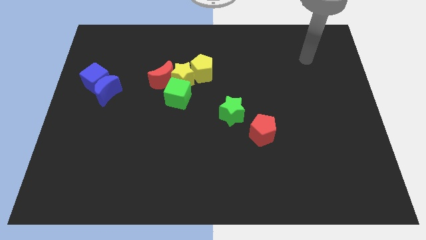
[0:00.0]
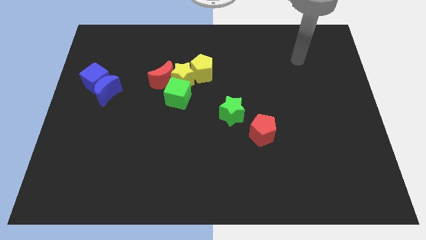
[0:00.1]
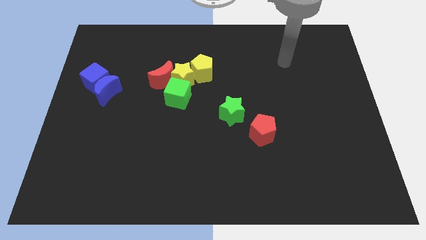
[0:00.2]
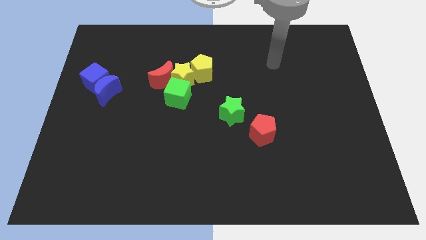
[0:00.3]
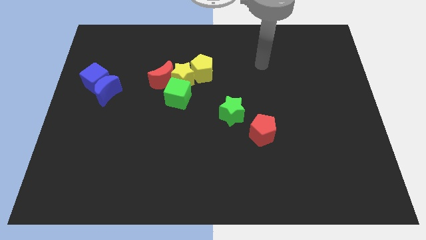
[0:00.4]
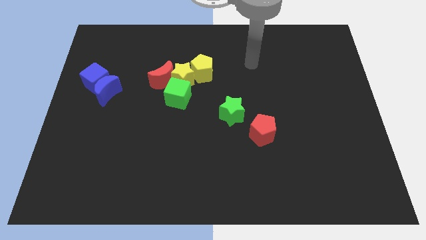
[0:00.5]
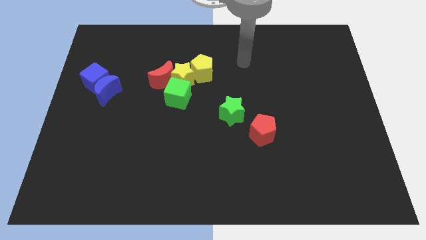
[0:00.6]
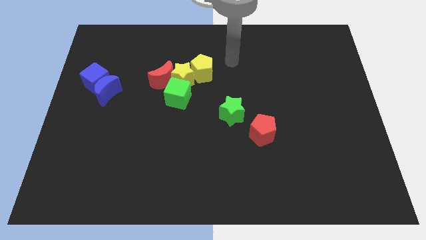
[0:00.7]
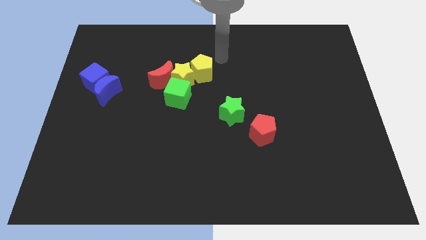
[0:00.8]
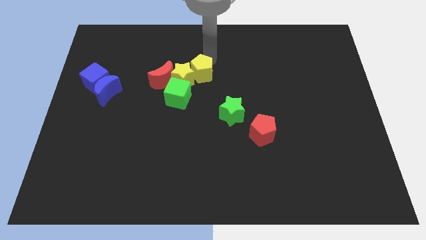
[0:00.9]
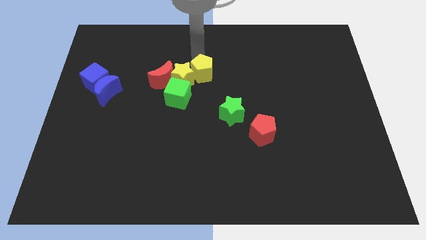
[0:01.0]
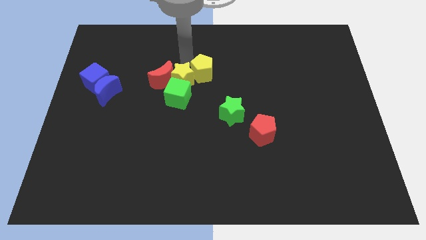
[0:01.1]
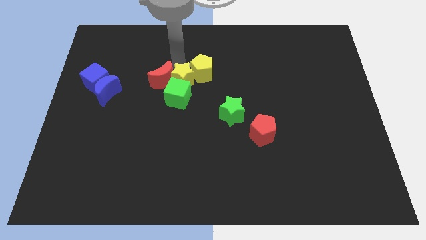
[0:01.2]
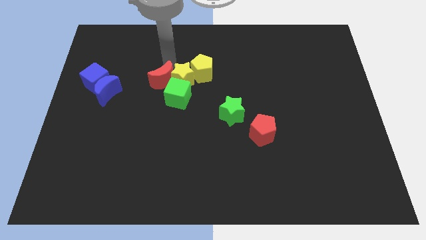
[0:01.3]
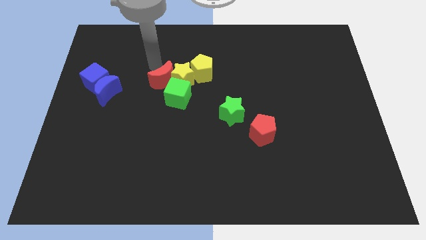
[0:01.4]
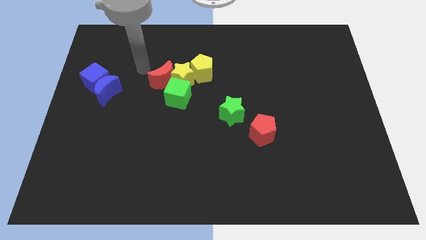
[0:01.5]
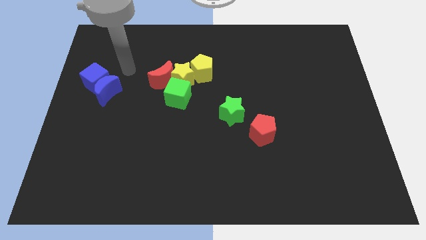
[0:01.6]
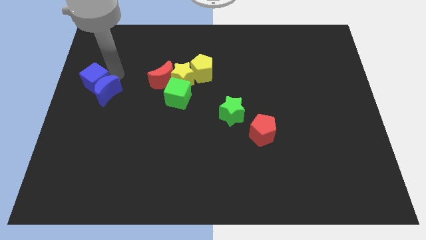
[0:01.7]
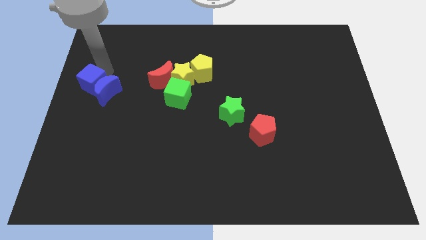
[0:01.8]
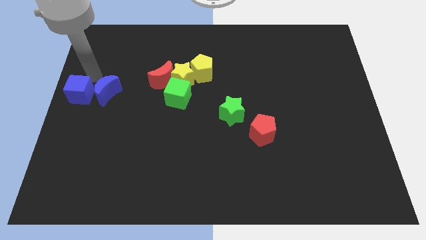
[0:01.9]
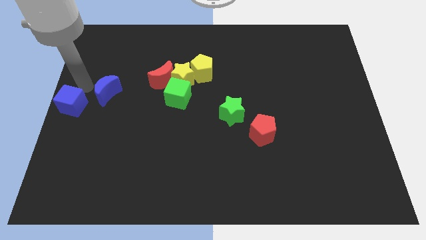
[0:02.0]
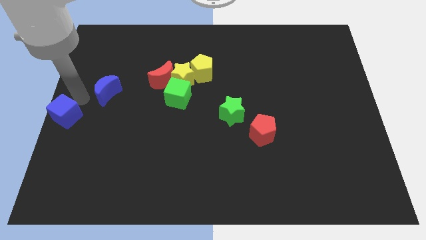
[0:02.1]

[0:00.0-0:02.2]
move the blue moon away from the blue cube

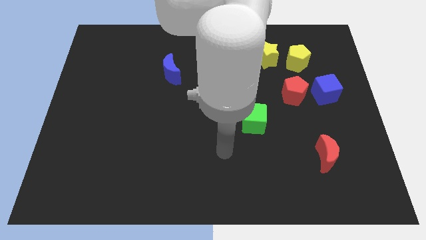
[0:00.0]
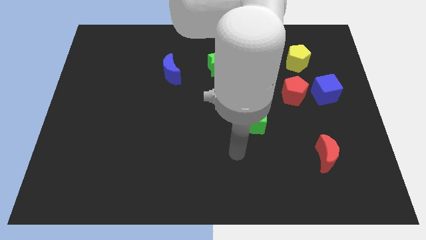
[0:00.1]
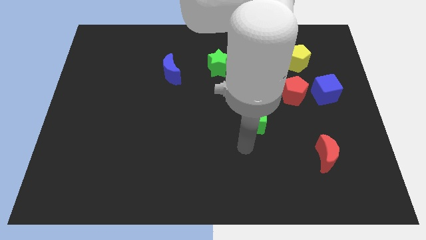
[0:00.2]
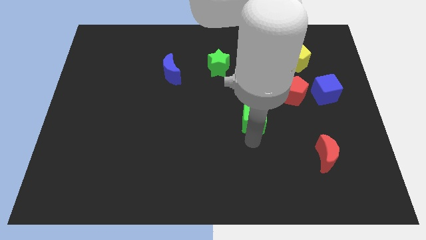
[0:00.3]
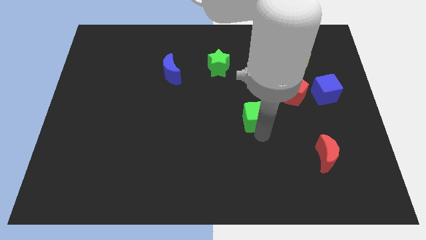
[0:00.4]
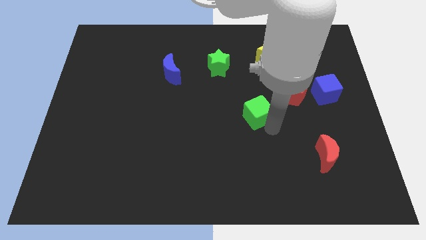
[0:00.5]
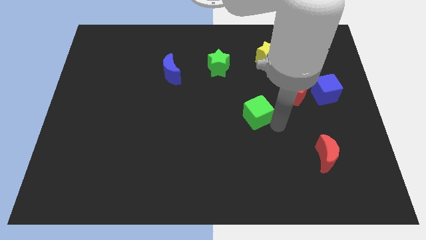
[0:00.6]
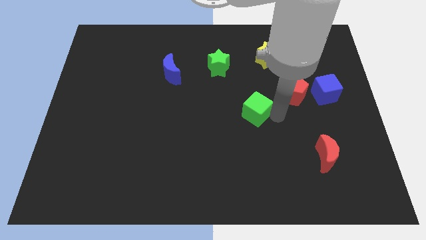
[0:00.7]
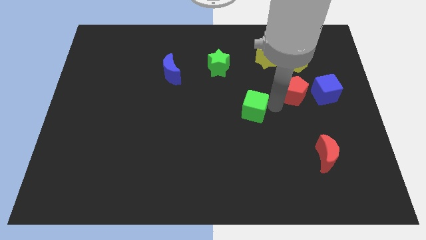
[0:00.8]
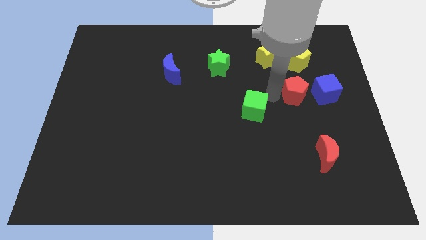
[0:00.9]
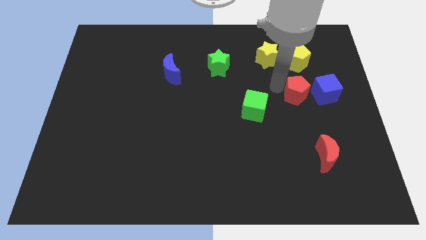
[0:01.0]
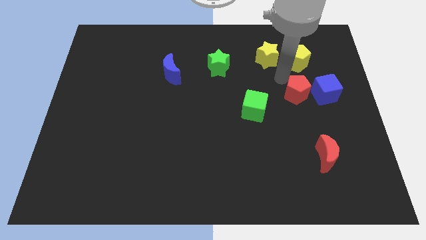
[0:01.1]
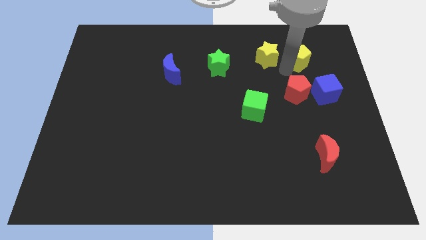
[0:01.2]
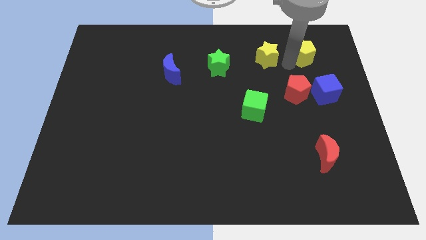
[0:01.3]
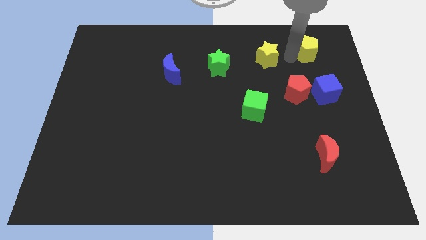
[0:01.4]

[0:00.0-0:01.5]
pull the yellow star apart from the yellow pentagon

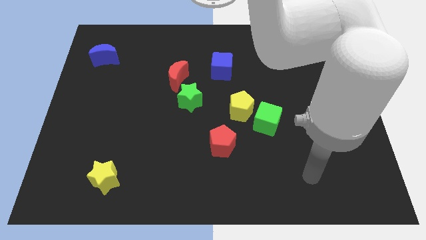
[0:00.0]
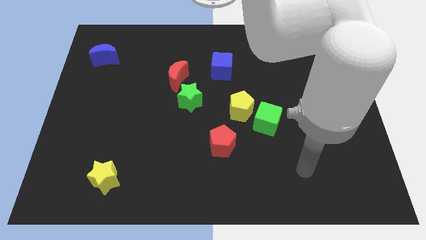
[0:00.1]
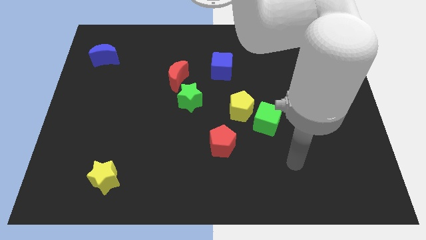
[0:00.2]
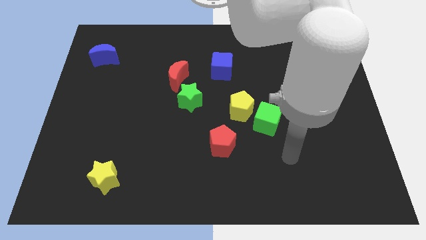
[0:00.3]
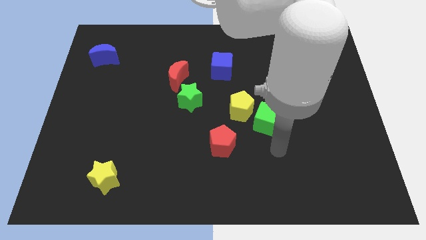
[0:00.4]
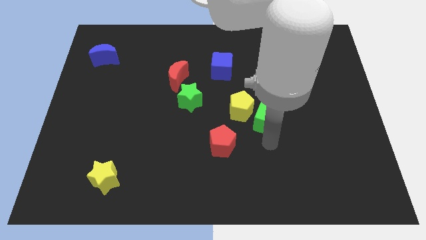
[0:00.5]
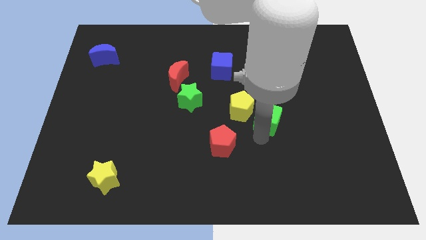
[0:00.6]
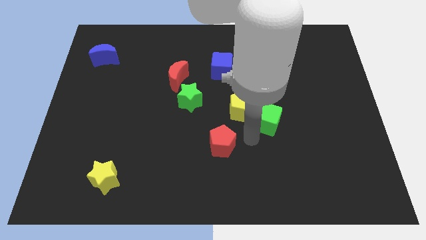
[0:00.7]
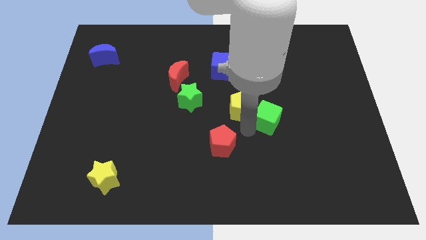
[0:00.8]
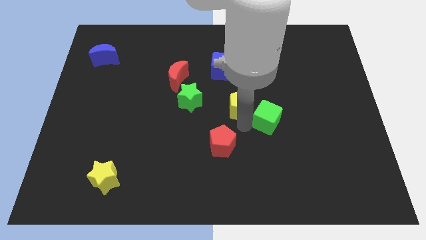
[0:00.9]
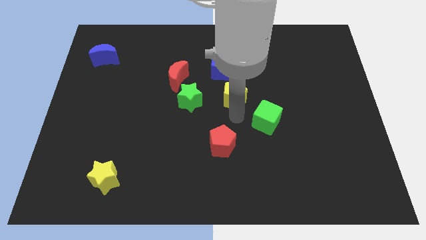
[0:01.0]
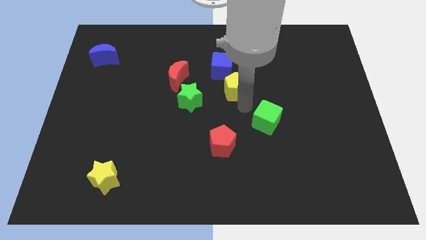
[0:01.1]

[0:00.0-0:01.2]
pull the green cube apart from the yellow pentagon

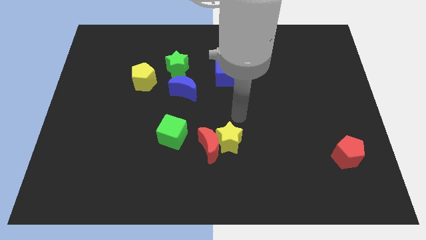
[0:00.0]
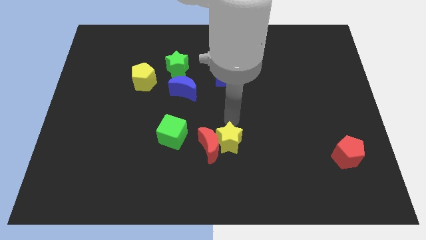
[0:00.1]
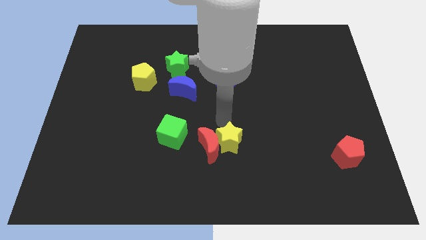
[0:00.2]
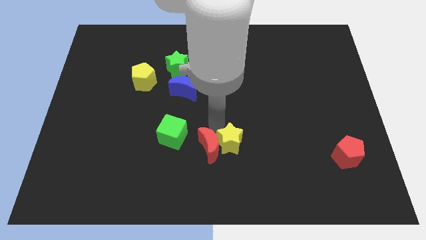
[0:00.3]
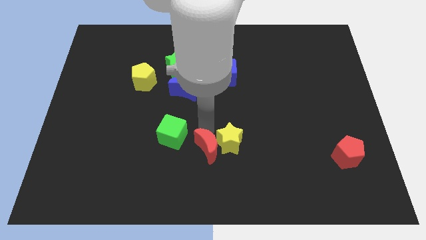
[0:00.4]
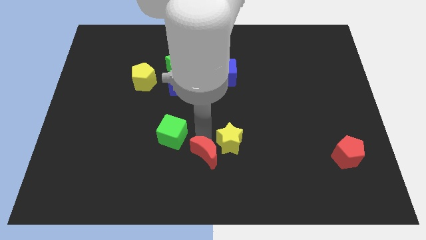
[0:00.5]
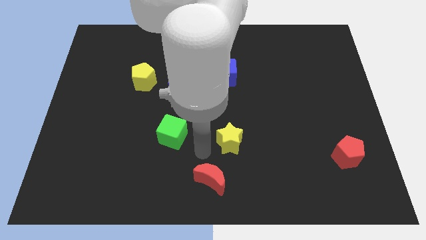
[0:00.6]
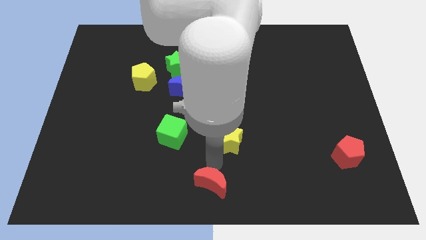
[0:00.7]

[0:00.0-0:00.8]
separate the yellow star from the red moon

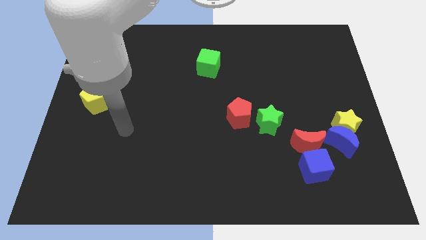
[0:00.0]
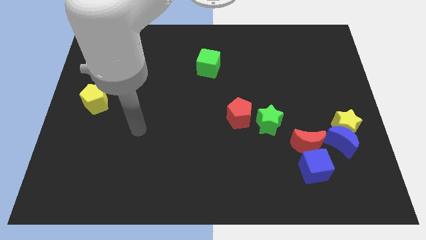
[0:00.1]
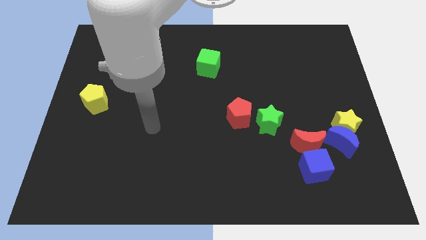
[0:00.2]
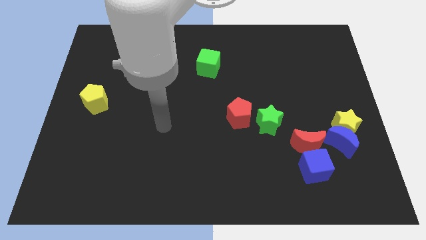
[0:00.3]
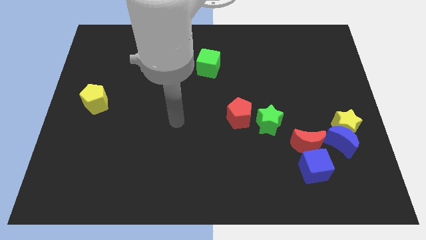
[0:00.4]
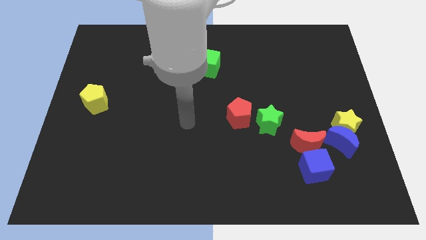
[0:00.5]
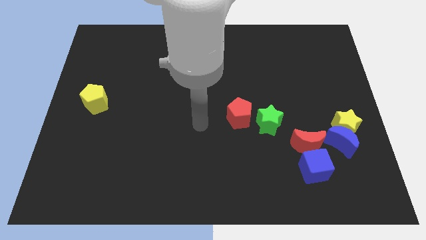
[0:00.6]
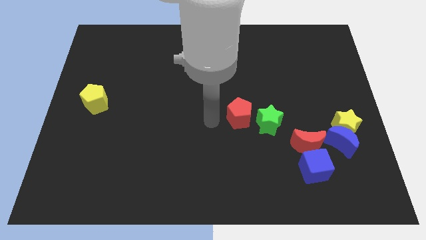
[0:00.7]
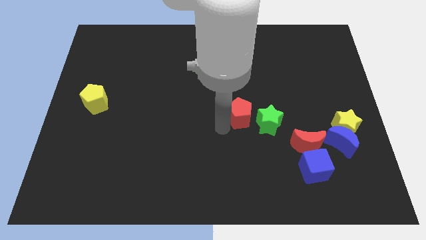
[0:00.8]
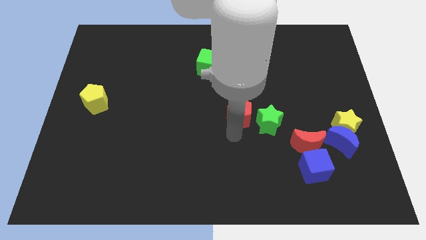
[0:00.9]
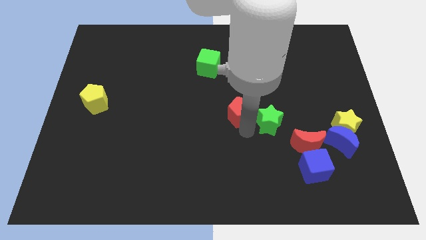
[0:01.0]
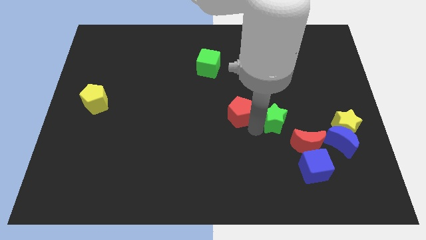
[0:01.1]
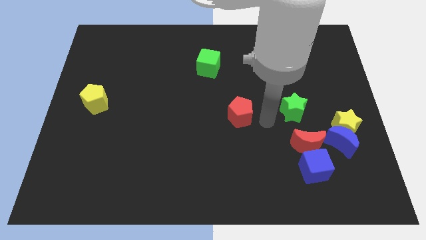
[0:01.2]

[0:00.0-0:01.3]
move the red pentagon away from the green star

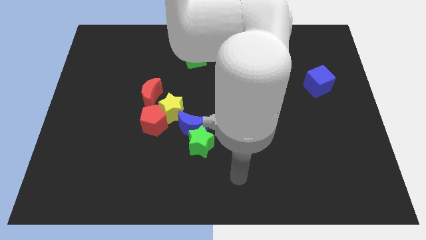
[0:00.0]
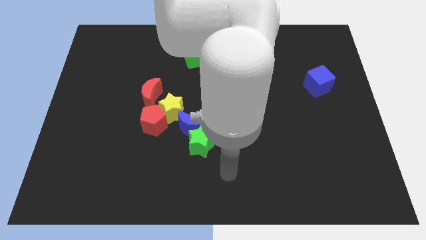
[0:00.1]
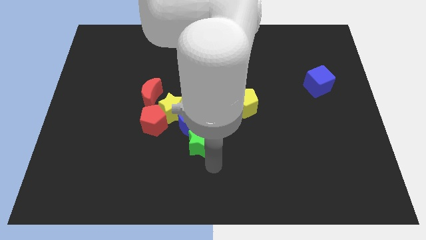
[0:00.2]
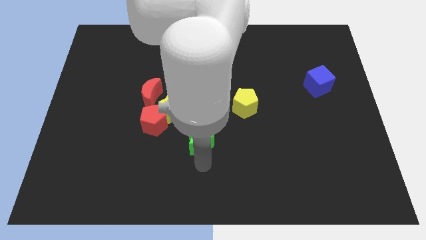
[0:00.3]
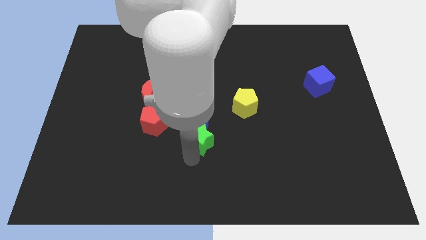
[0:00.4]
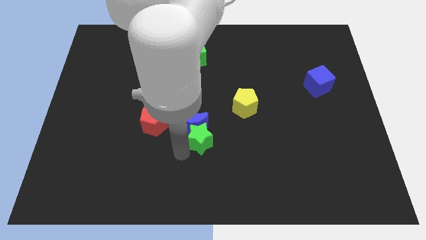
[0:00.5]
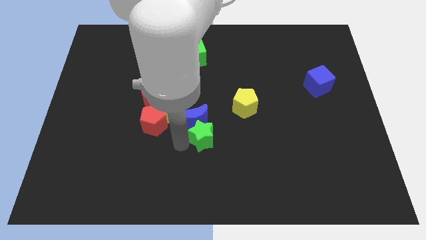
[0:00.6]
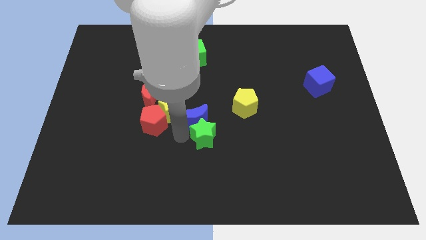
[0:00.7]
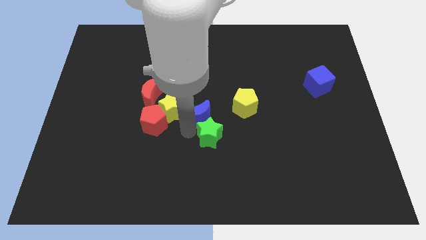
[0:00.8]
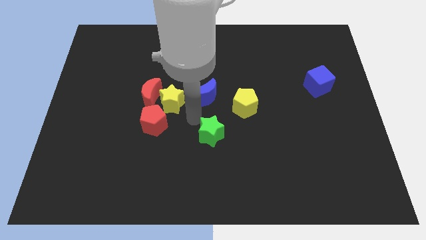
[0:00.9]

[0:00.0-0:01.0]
move the green star away from the blue moon

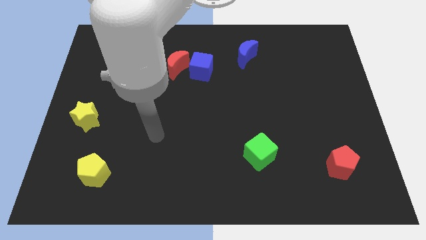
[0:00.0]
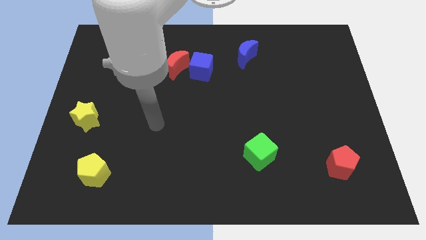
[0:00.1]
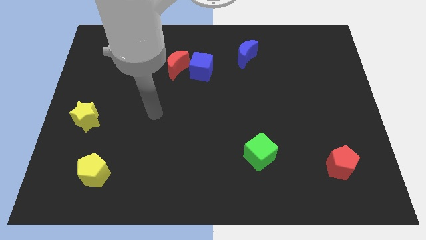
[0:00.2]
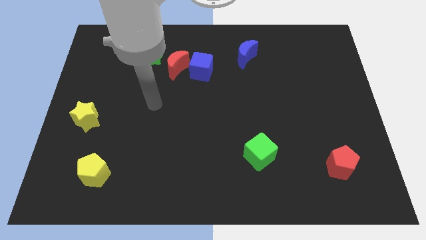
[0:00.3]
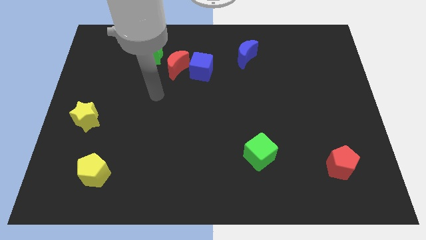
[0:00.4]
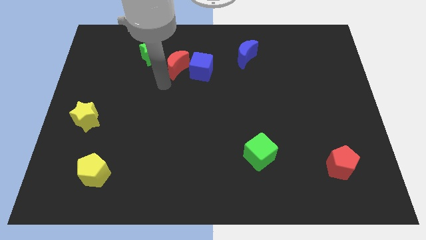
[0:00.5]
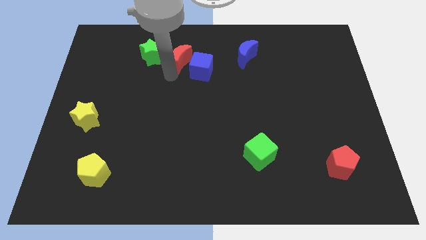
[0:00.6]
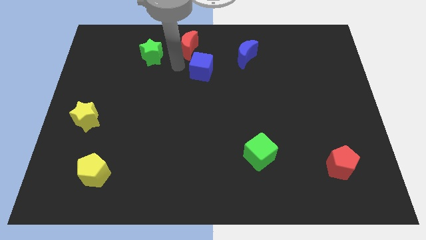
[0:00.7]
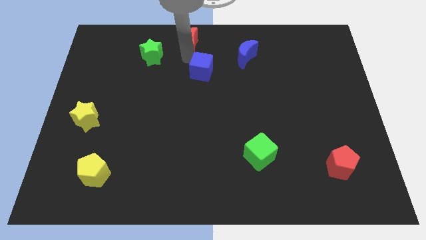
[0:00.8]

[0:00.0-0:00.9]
separate the blue cube from the red moon

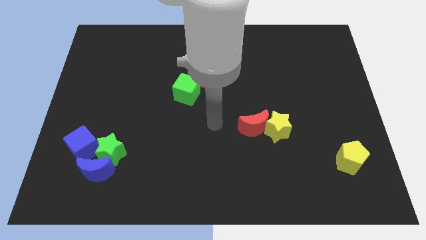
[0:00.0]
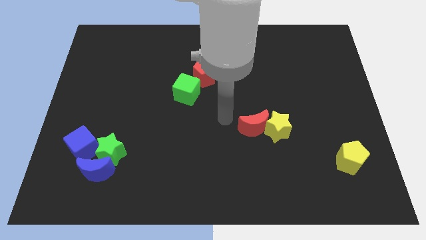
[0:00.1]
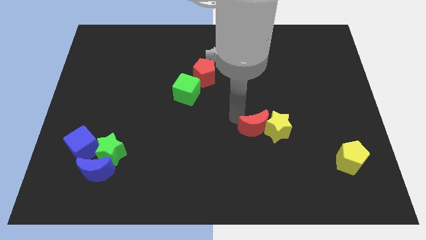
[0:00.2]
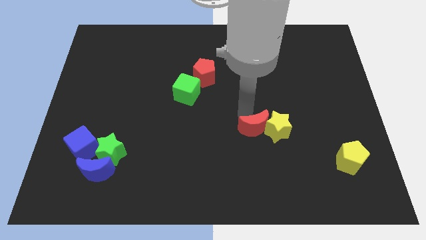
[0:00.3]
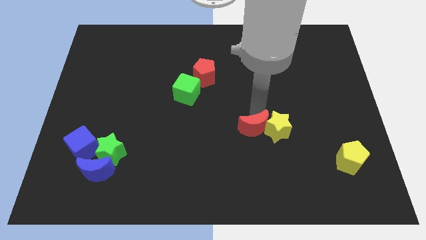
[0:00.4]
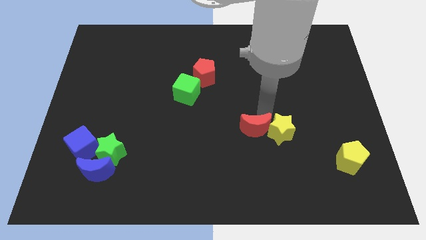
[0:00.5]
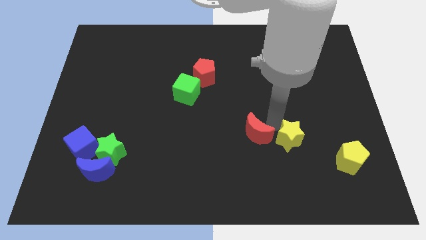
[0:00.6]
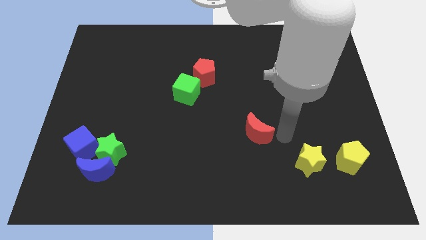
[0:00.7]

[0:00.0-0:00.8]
separate the red moon from the yellow star
